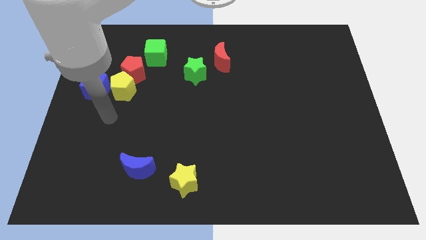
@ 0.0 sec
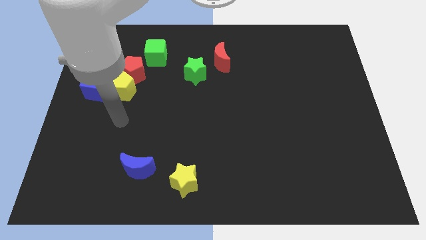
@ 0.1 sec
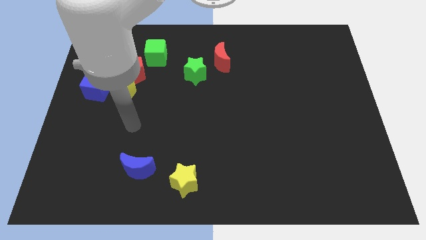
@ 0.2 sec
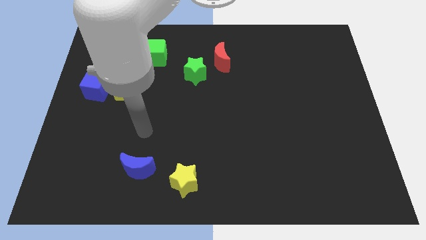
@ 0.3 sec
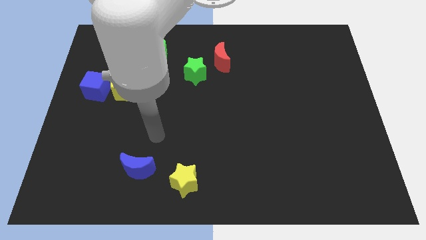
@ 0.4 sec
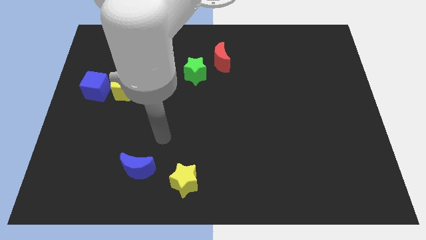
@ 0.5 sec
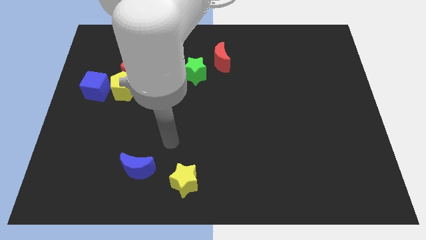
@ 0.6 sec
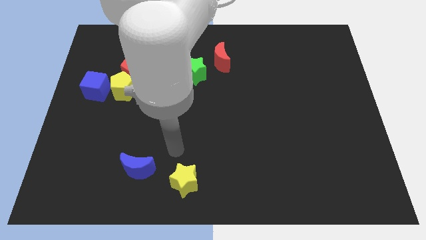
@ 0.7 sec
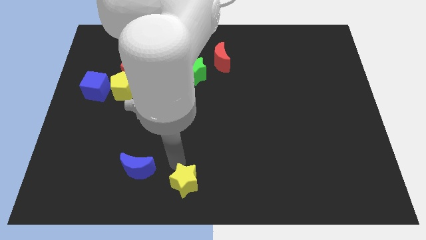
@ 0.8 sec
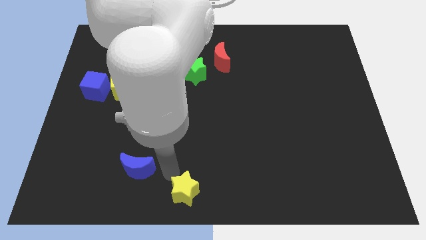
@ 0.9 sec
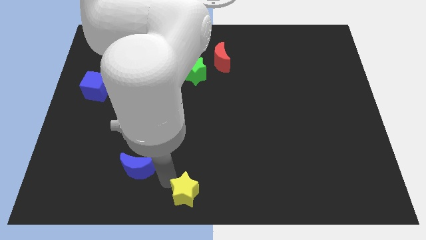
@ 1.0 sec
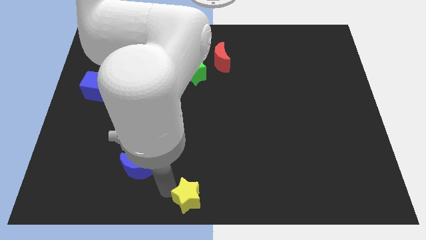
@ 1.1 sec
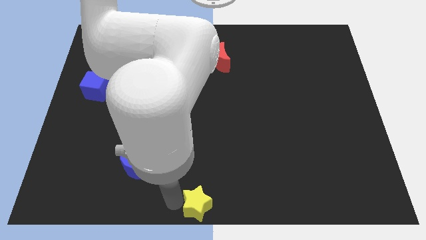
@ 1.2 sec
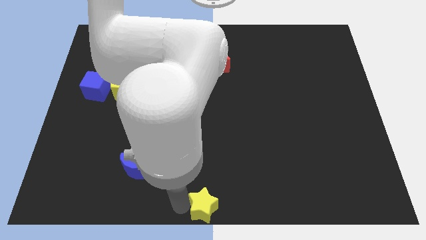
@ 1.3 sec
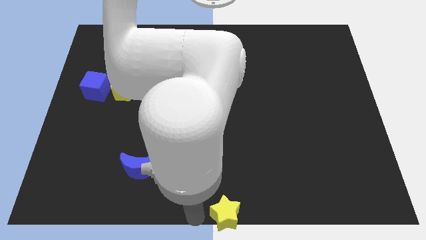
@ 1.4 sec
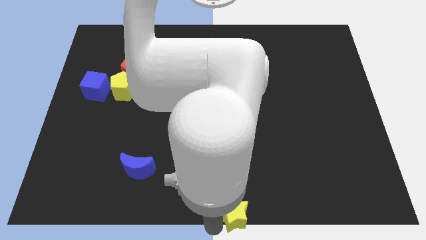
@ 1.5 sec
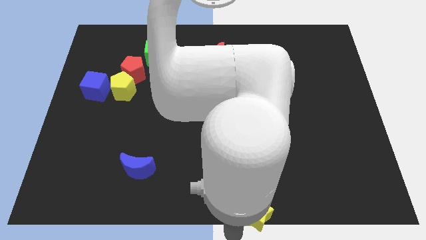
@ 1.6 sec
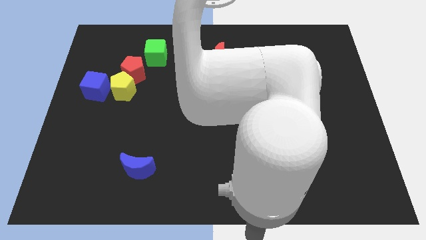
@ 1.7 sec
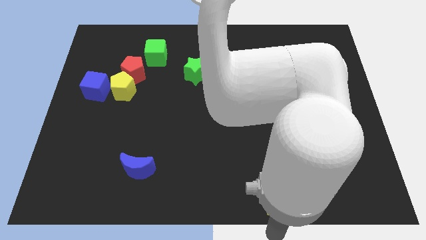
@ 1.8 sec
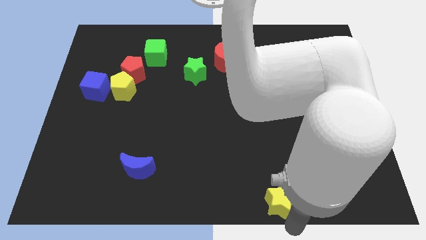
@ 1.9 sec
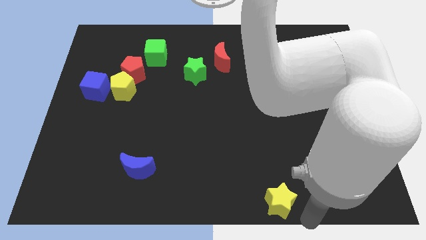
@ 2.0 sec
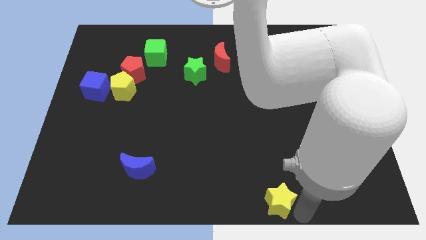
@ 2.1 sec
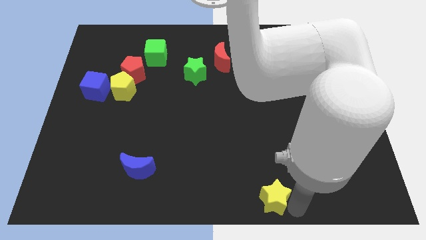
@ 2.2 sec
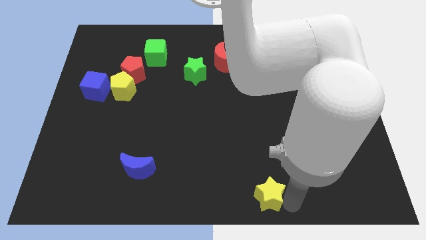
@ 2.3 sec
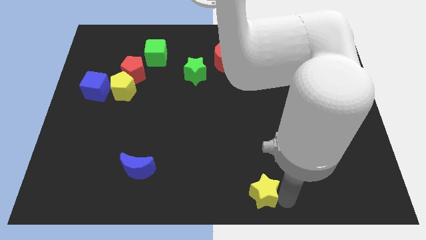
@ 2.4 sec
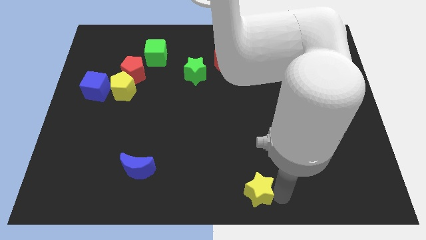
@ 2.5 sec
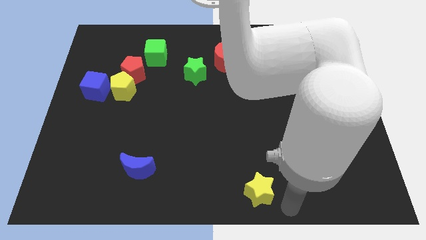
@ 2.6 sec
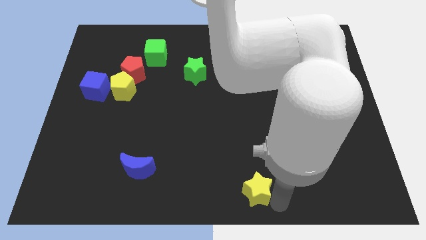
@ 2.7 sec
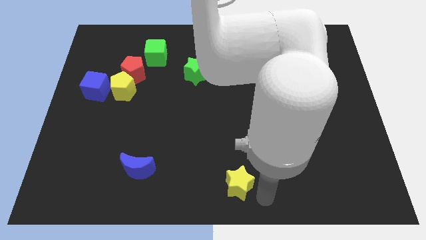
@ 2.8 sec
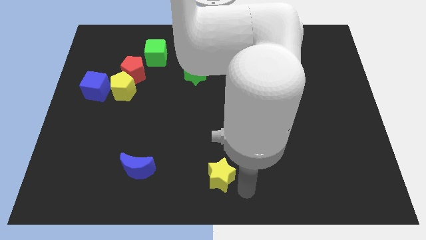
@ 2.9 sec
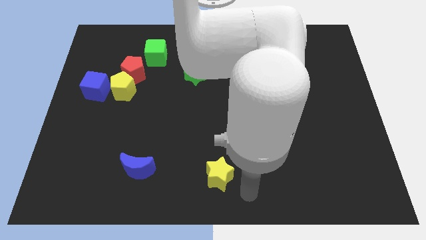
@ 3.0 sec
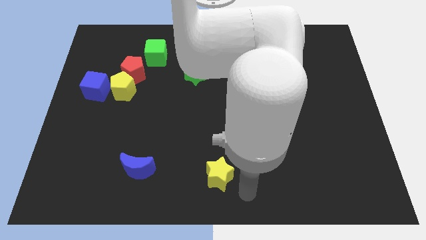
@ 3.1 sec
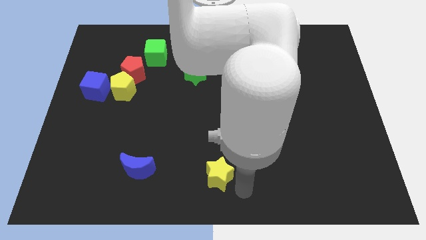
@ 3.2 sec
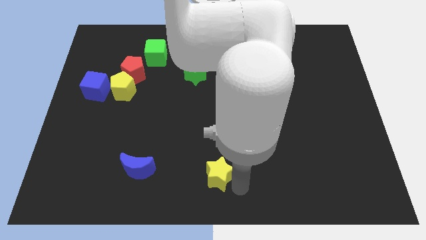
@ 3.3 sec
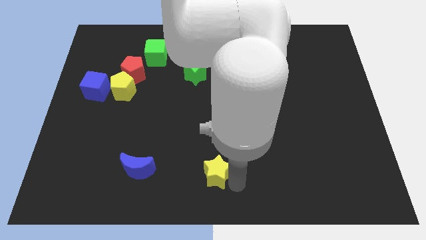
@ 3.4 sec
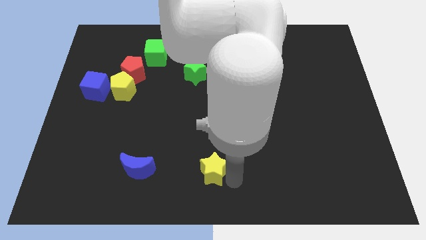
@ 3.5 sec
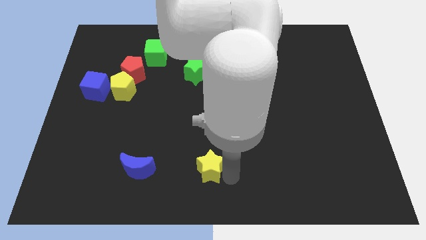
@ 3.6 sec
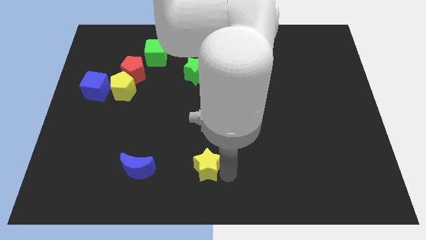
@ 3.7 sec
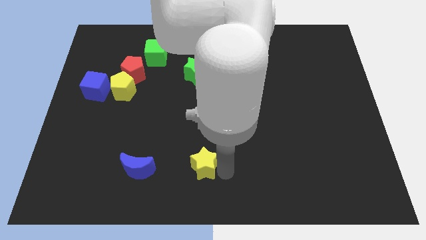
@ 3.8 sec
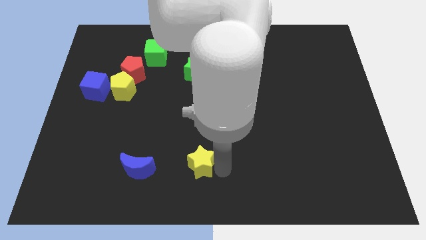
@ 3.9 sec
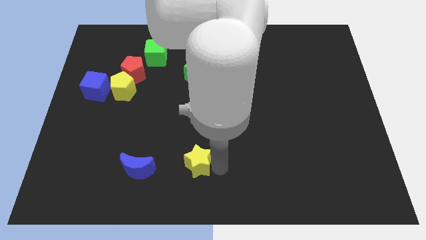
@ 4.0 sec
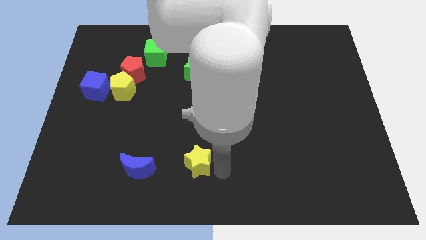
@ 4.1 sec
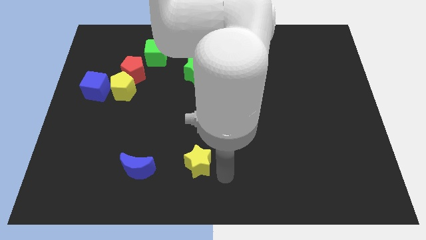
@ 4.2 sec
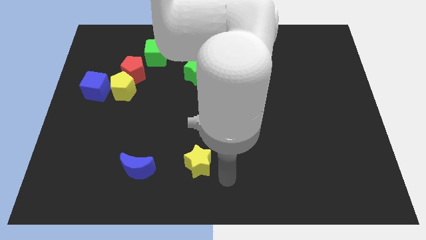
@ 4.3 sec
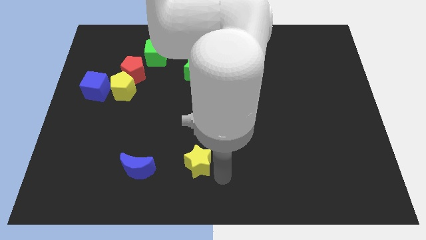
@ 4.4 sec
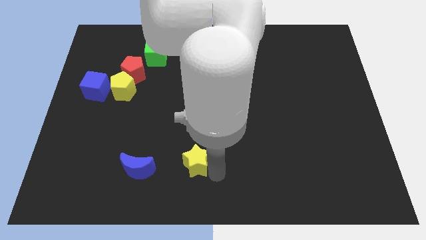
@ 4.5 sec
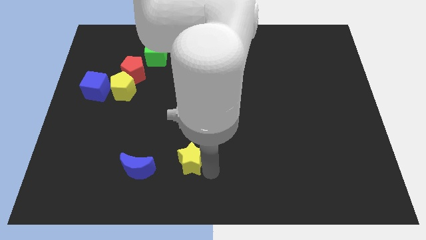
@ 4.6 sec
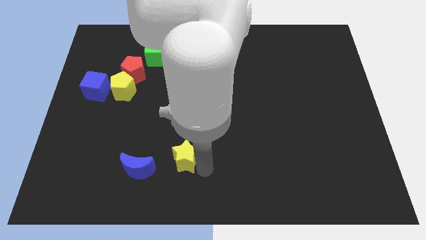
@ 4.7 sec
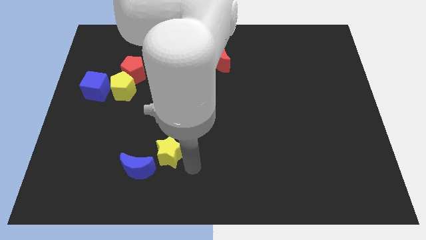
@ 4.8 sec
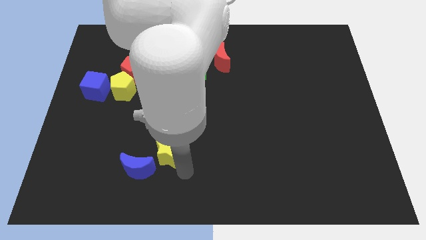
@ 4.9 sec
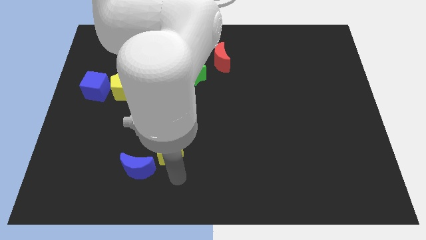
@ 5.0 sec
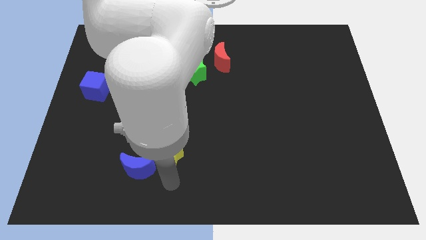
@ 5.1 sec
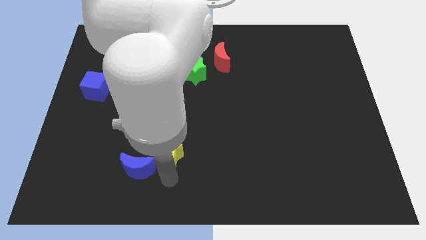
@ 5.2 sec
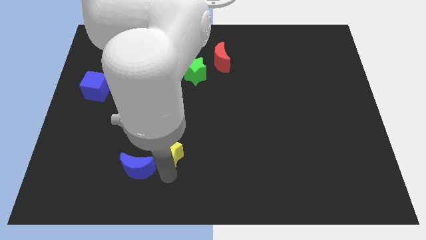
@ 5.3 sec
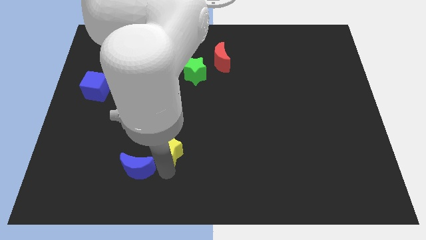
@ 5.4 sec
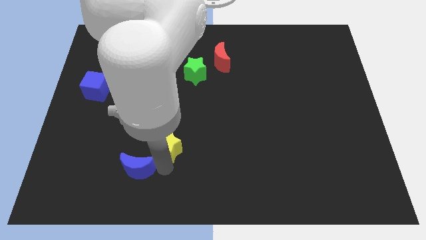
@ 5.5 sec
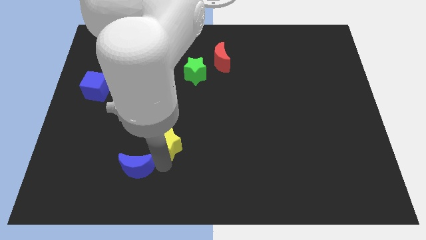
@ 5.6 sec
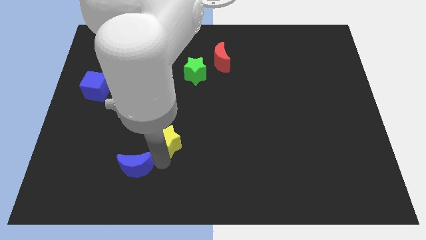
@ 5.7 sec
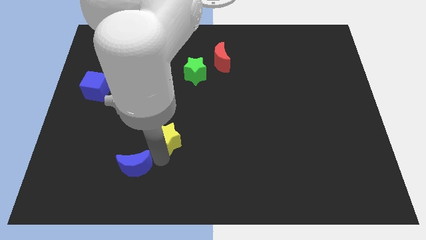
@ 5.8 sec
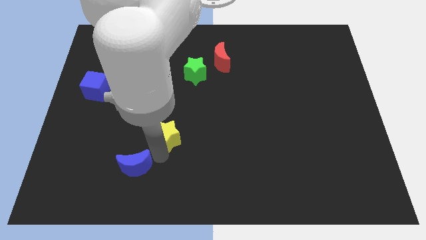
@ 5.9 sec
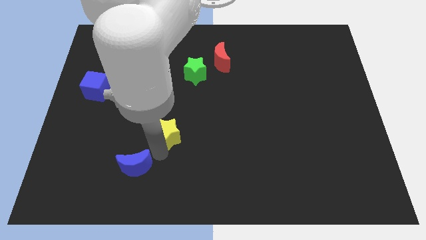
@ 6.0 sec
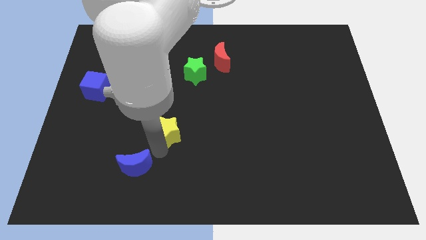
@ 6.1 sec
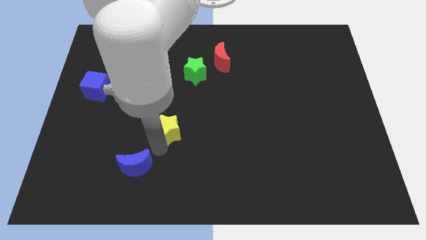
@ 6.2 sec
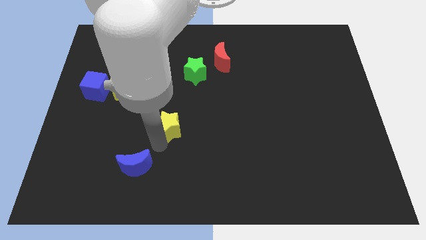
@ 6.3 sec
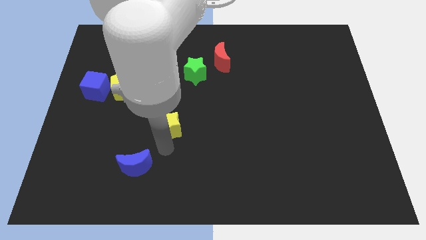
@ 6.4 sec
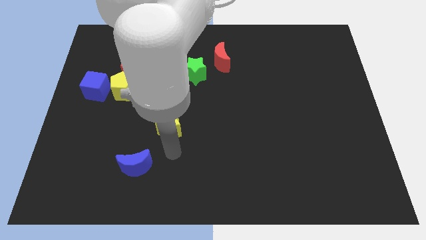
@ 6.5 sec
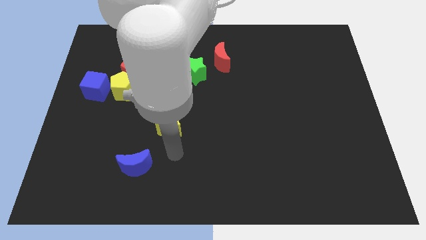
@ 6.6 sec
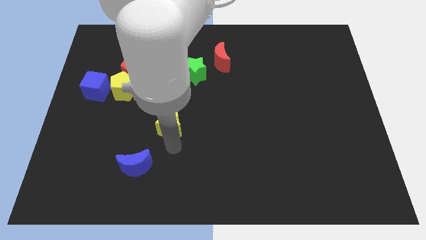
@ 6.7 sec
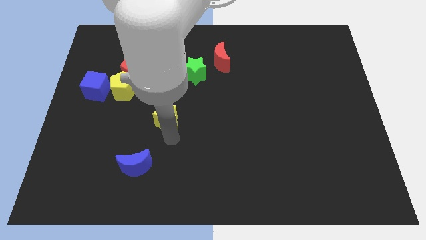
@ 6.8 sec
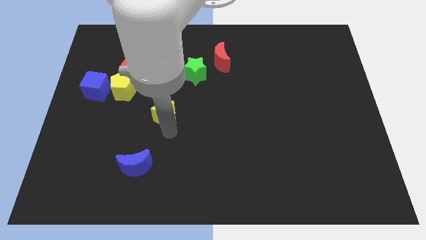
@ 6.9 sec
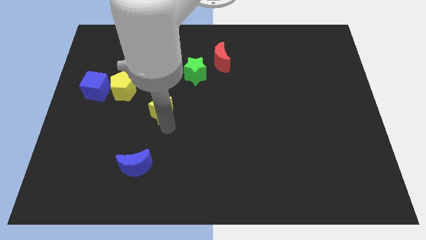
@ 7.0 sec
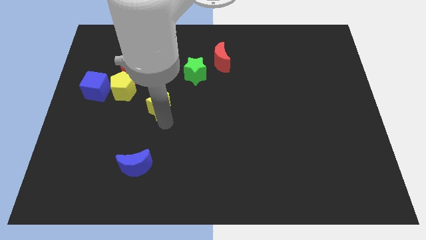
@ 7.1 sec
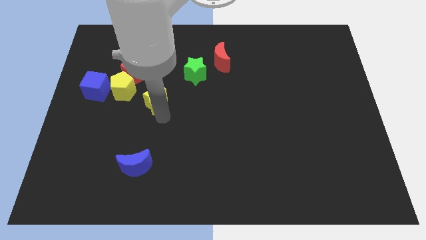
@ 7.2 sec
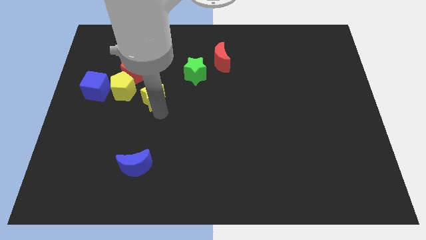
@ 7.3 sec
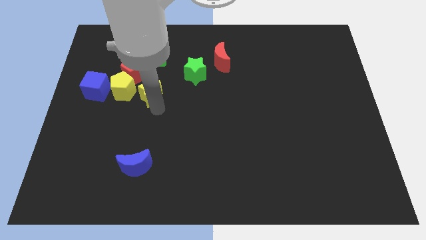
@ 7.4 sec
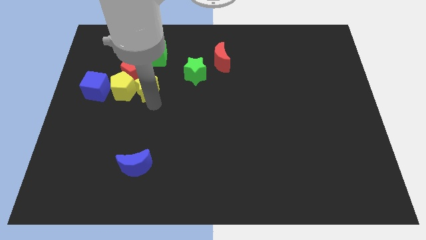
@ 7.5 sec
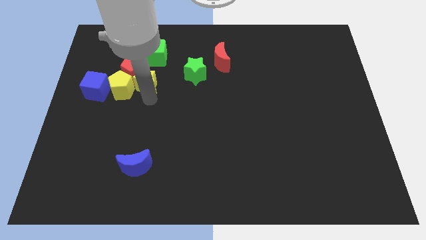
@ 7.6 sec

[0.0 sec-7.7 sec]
slide the yellow star to the left side of the green star

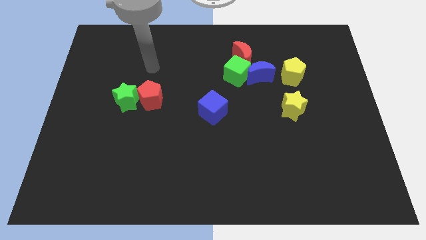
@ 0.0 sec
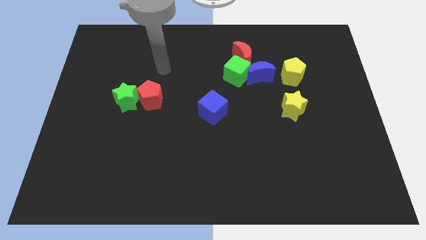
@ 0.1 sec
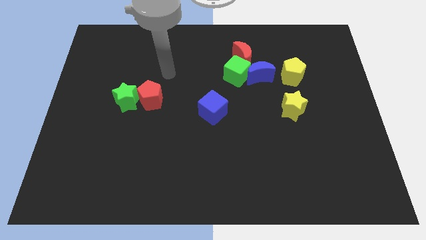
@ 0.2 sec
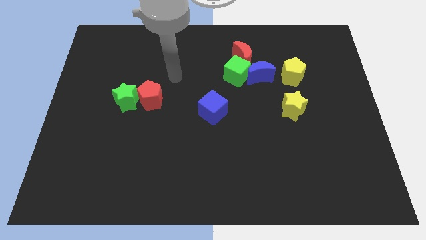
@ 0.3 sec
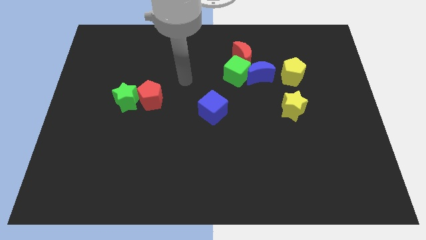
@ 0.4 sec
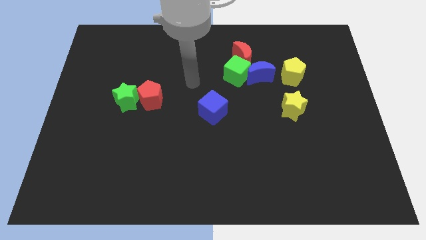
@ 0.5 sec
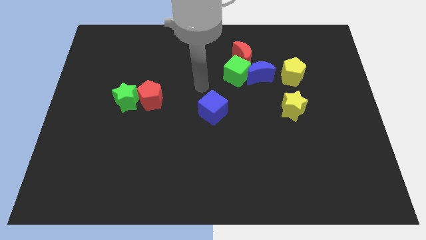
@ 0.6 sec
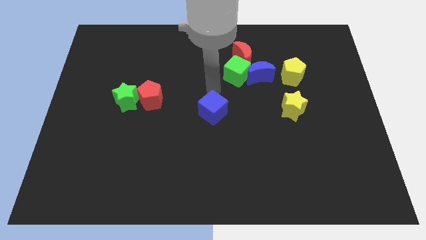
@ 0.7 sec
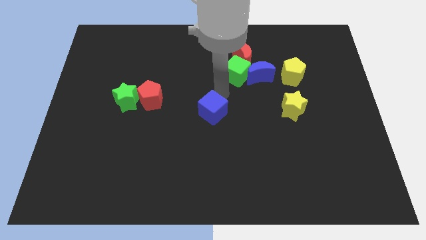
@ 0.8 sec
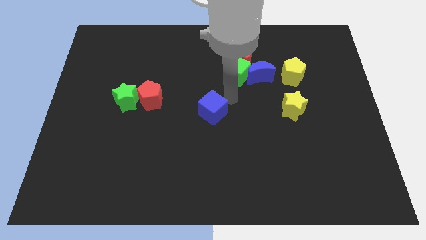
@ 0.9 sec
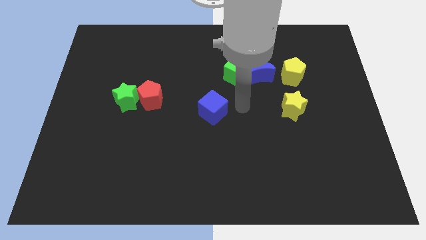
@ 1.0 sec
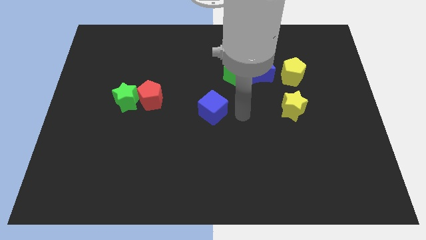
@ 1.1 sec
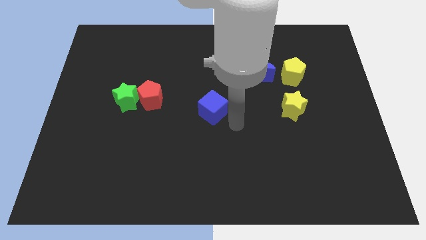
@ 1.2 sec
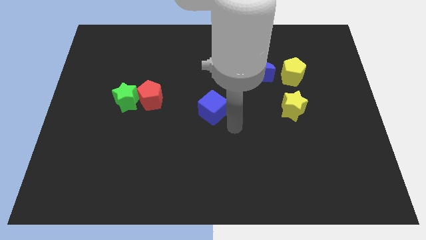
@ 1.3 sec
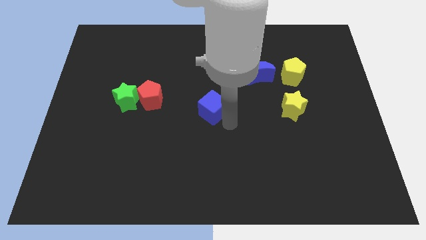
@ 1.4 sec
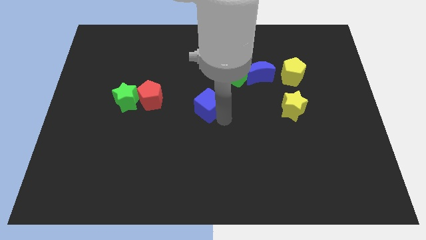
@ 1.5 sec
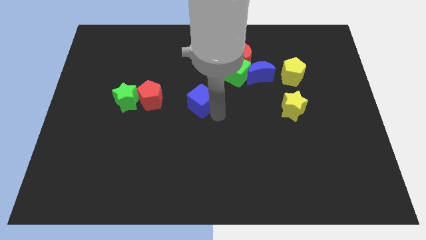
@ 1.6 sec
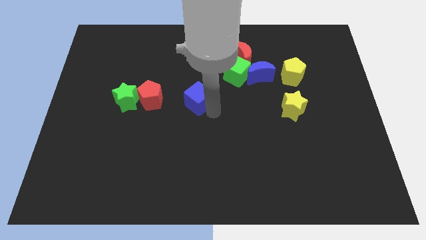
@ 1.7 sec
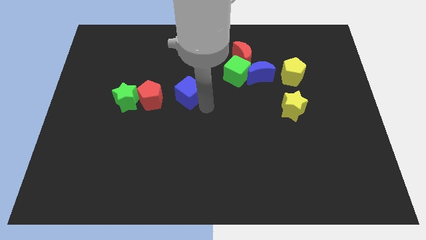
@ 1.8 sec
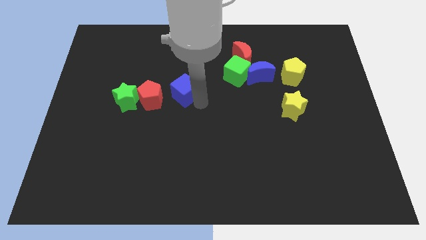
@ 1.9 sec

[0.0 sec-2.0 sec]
push the blue cube to the top right side of the red pentagon
